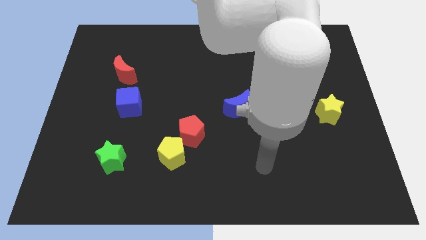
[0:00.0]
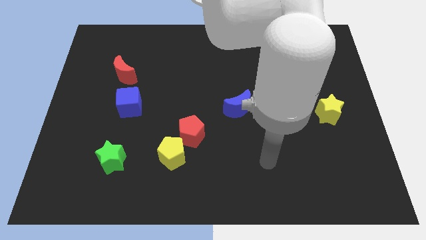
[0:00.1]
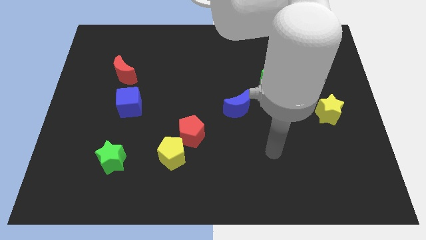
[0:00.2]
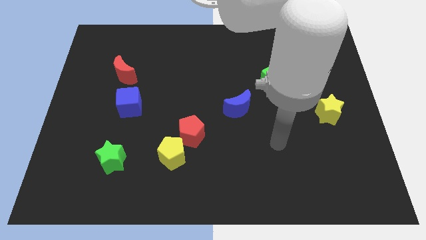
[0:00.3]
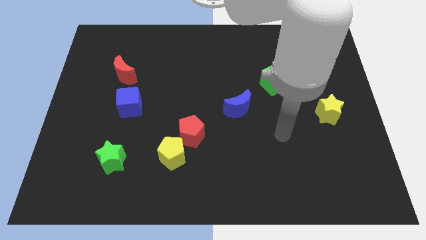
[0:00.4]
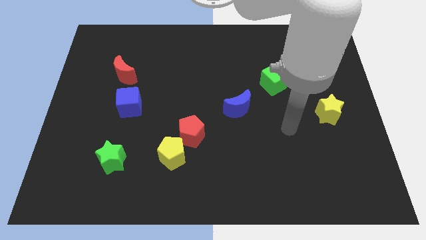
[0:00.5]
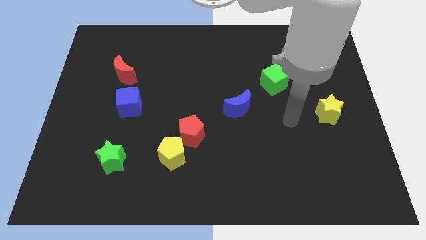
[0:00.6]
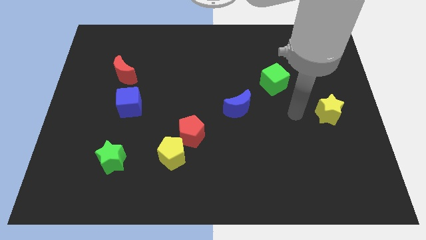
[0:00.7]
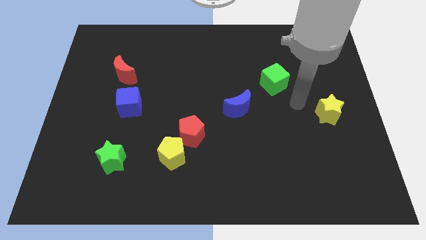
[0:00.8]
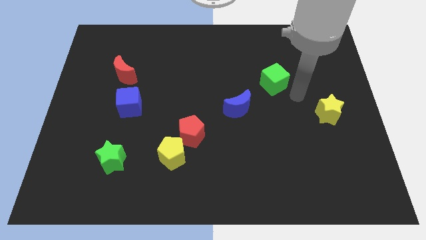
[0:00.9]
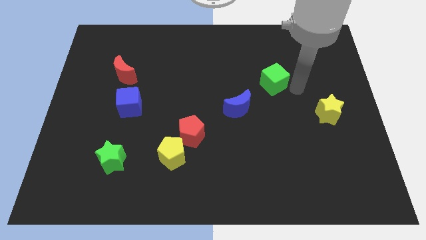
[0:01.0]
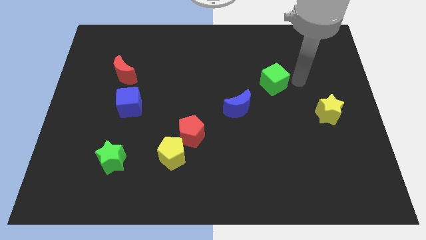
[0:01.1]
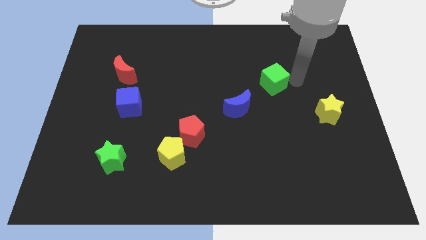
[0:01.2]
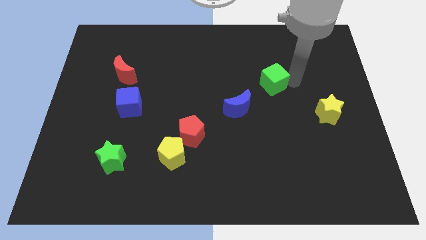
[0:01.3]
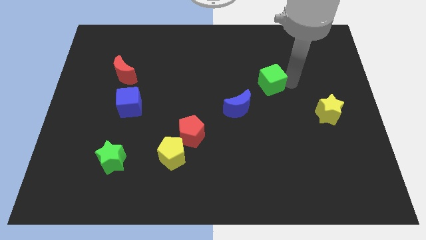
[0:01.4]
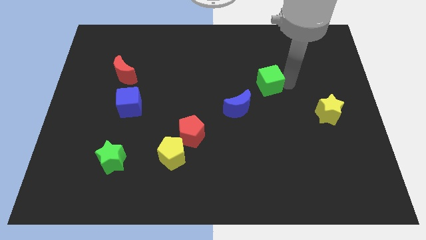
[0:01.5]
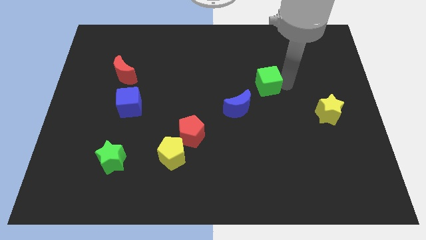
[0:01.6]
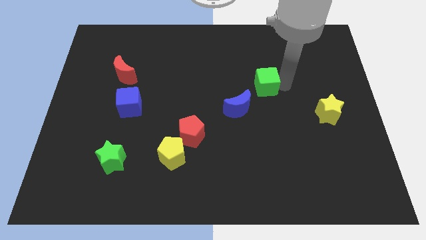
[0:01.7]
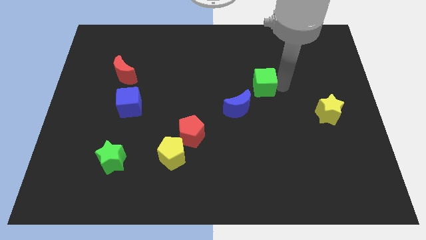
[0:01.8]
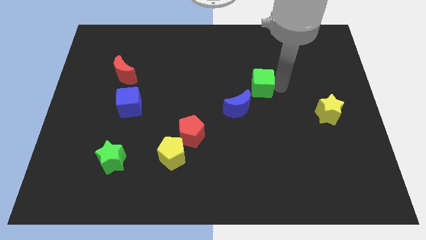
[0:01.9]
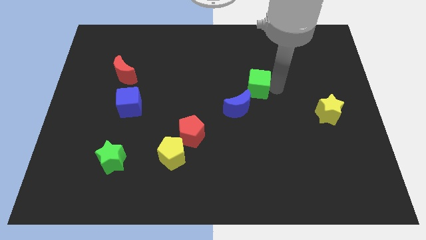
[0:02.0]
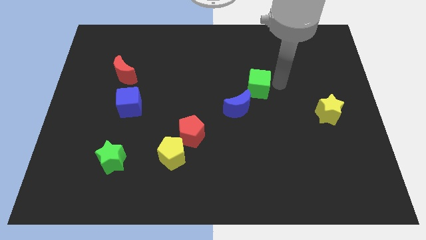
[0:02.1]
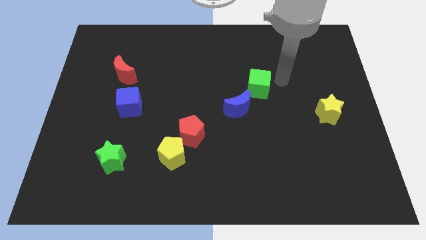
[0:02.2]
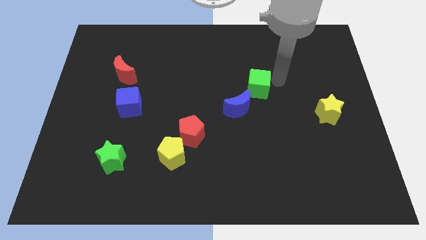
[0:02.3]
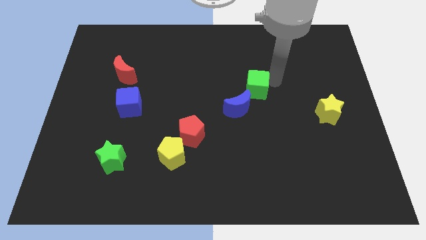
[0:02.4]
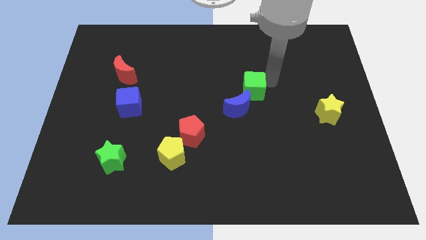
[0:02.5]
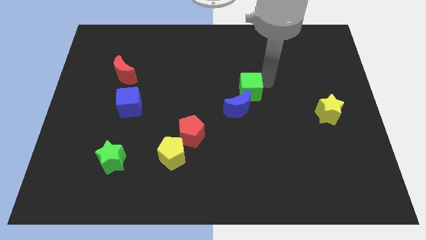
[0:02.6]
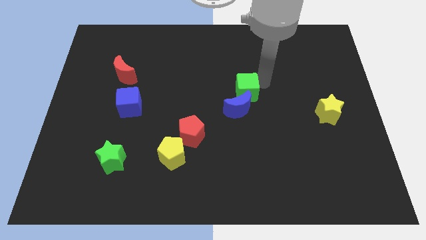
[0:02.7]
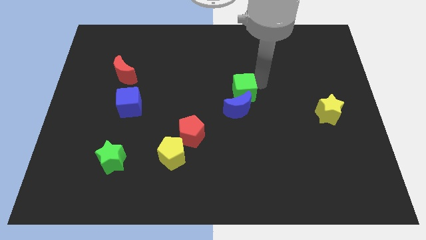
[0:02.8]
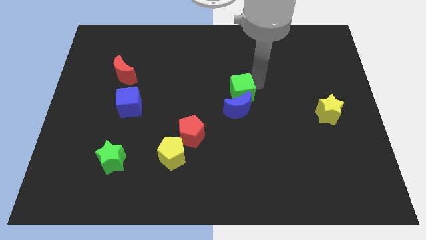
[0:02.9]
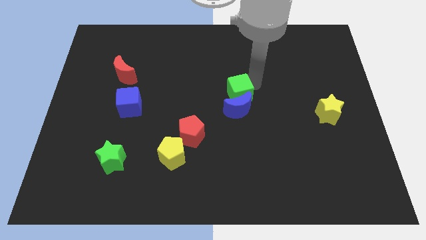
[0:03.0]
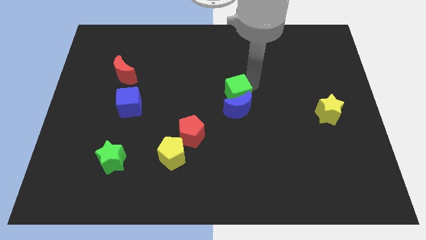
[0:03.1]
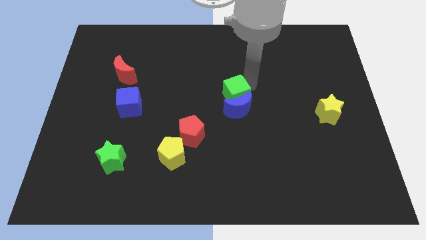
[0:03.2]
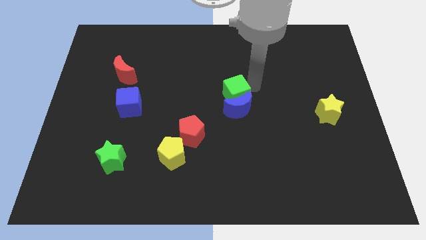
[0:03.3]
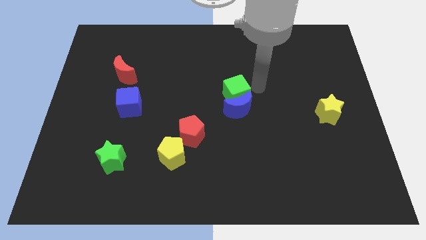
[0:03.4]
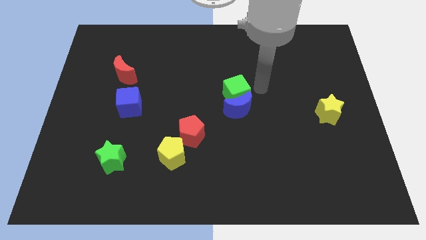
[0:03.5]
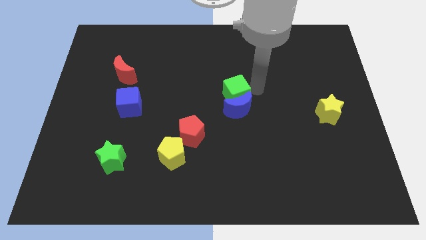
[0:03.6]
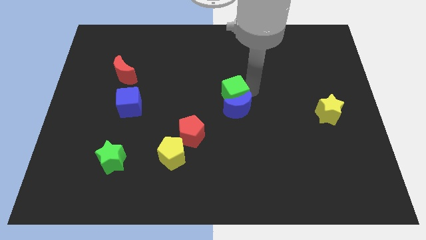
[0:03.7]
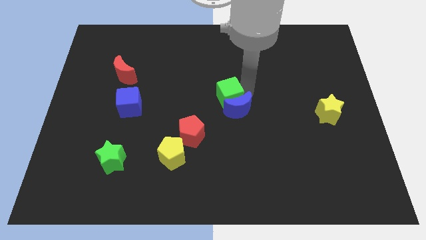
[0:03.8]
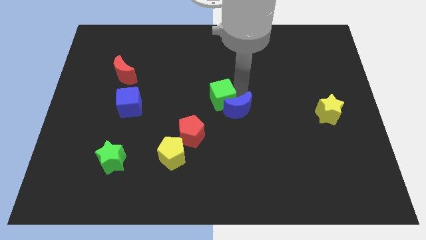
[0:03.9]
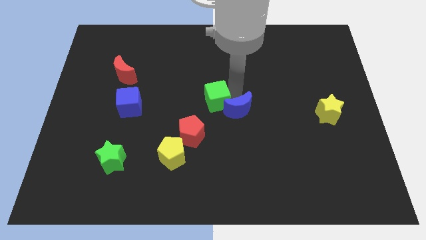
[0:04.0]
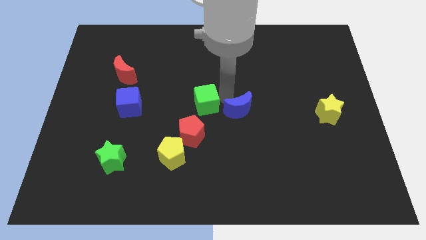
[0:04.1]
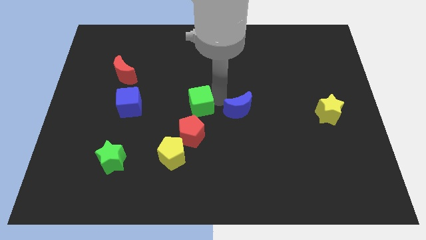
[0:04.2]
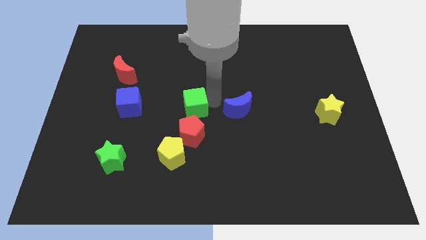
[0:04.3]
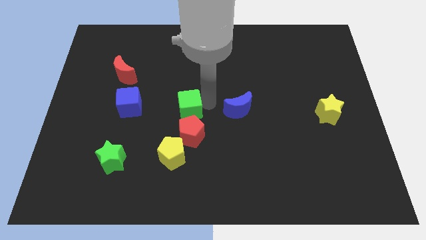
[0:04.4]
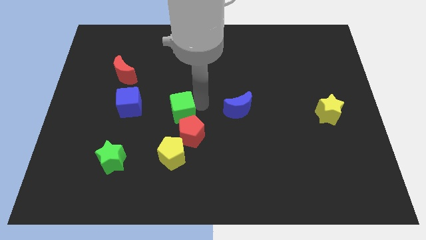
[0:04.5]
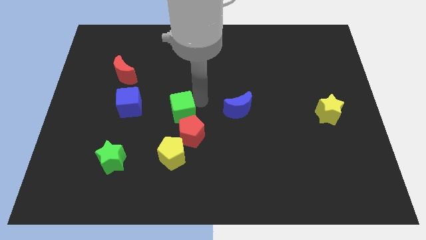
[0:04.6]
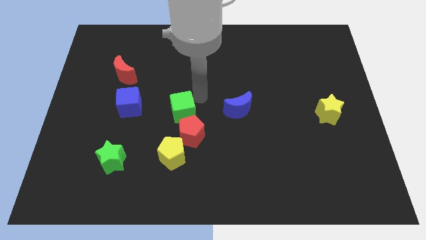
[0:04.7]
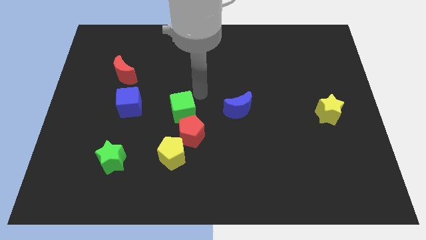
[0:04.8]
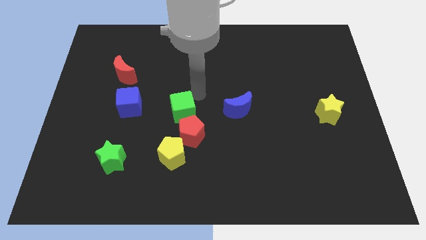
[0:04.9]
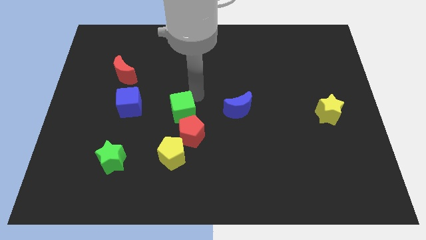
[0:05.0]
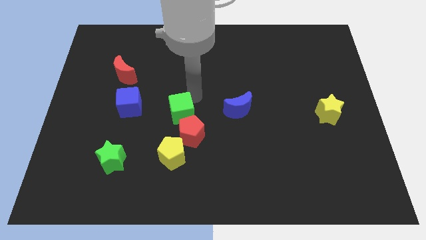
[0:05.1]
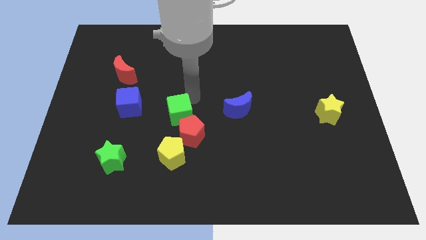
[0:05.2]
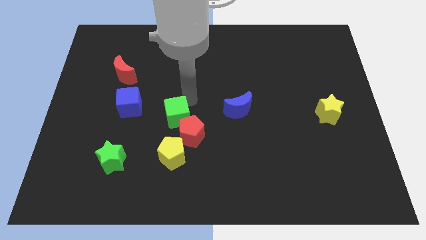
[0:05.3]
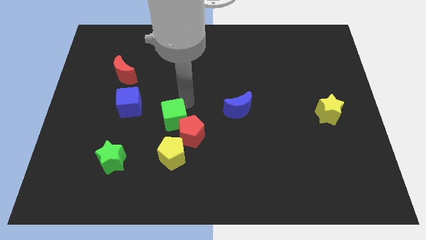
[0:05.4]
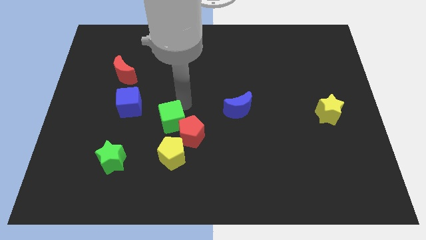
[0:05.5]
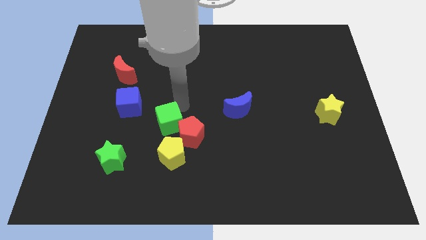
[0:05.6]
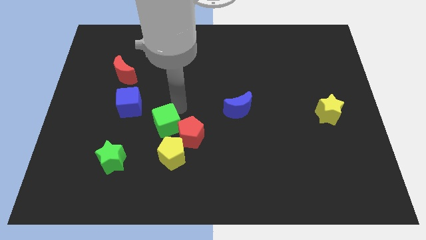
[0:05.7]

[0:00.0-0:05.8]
move the green cube to the top left side of the yellow pentagon

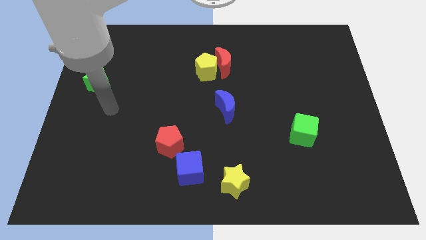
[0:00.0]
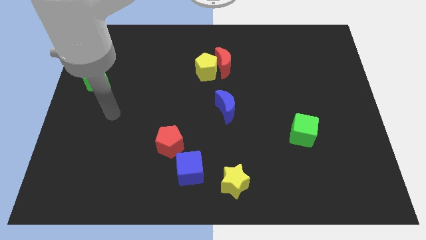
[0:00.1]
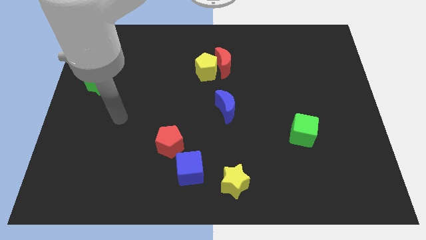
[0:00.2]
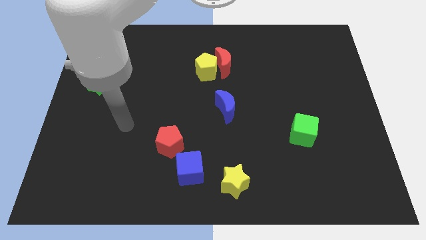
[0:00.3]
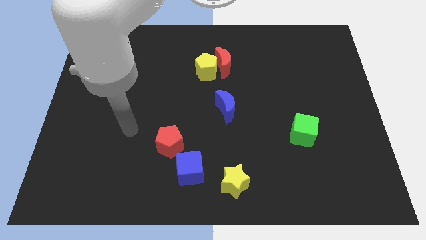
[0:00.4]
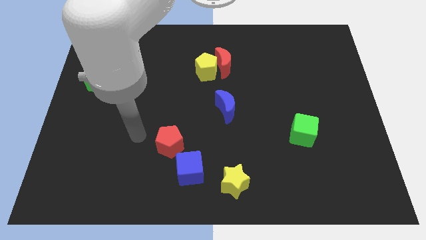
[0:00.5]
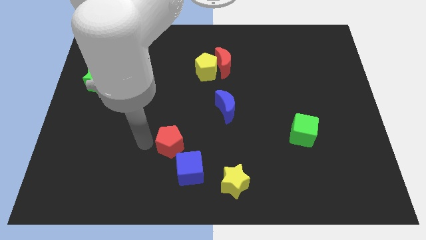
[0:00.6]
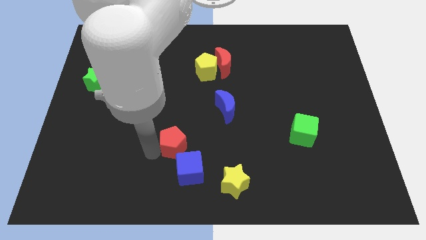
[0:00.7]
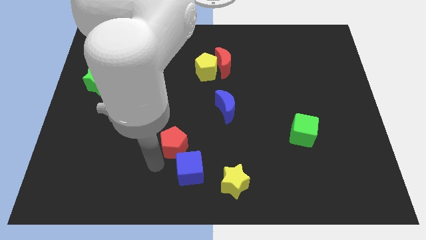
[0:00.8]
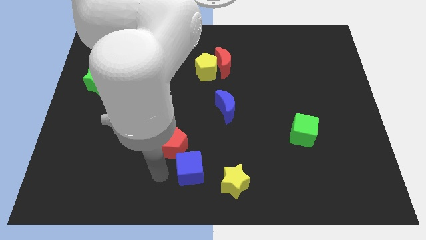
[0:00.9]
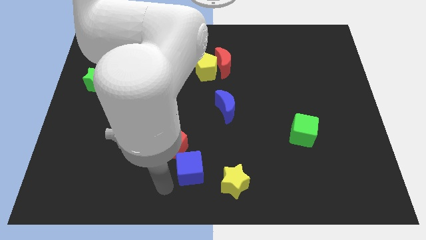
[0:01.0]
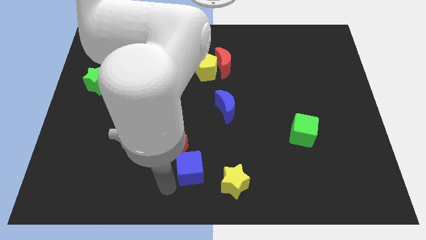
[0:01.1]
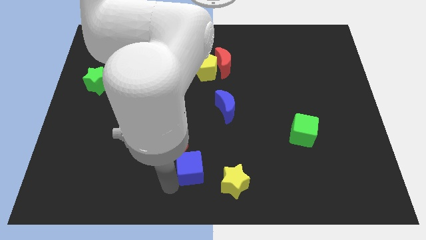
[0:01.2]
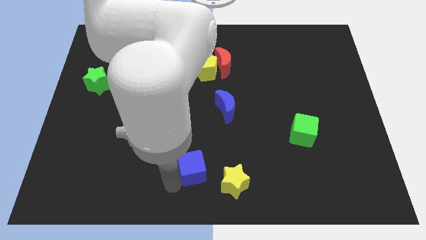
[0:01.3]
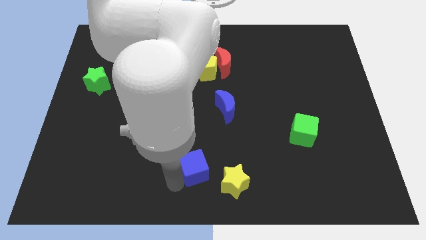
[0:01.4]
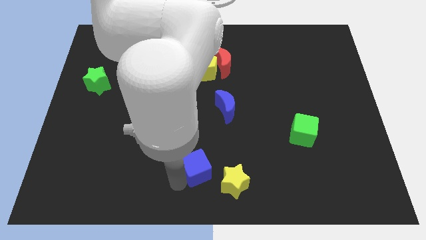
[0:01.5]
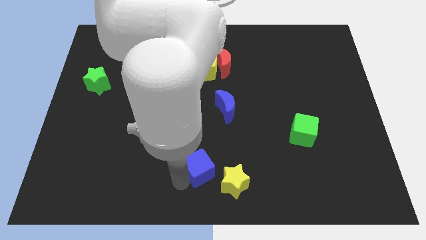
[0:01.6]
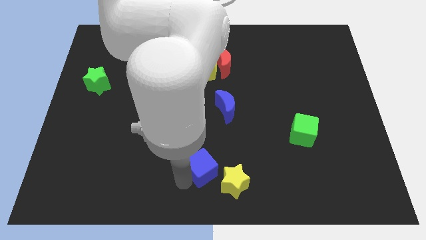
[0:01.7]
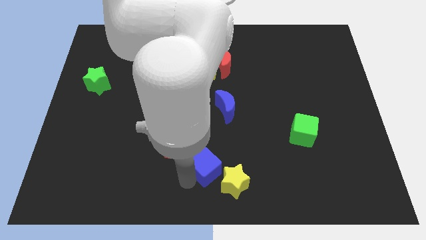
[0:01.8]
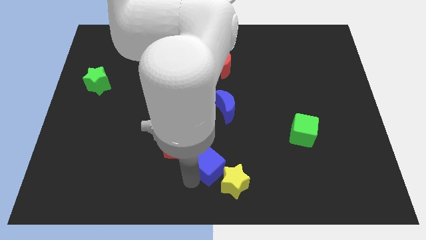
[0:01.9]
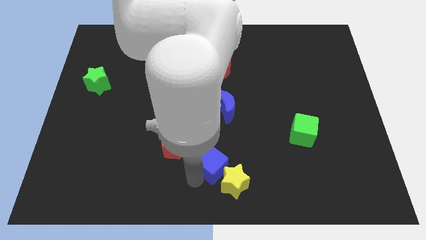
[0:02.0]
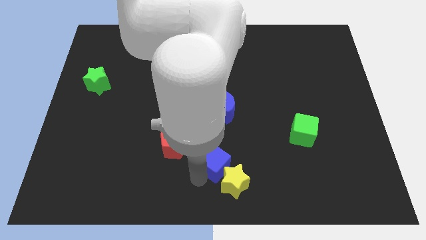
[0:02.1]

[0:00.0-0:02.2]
slide the blue cube just right of the red pentagon
